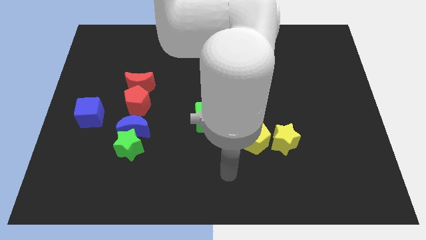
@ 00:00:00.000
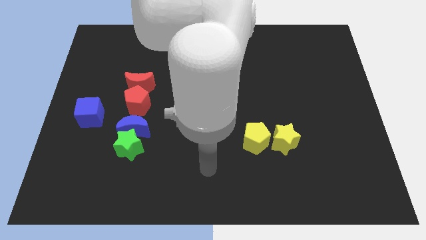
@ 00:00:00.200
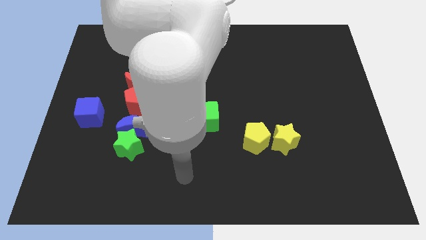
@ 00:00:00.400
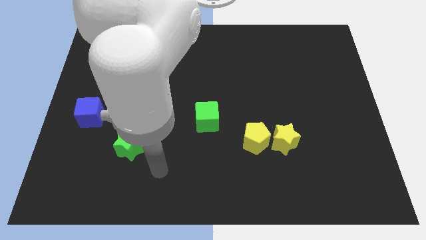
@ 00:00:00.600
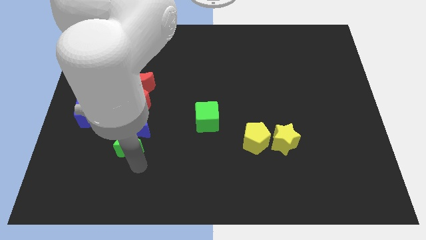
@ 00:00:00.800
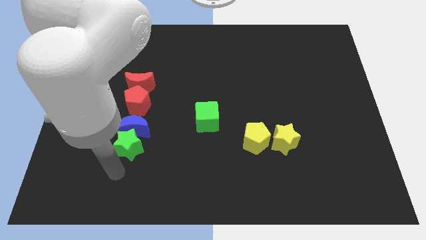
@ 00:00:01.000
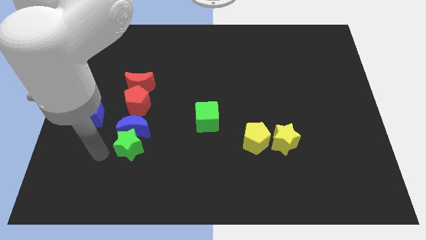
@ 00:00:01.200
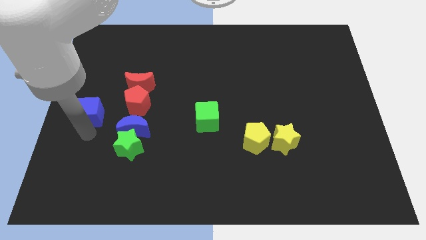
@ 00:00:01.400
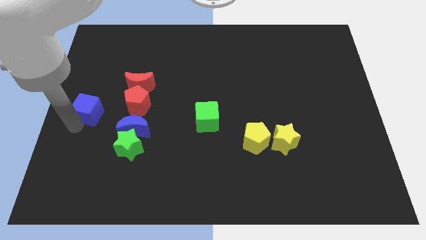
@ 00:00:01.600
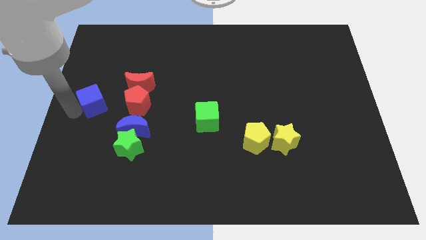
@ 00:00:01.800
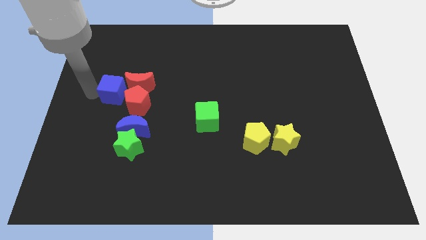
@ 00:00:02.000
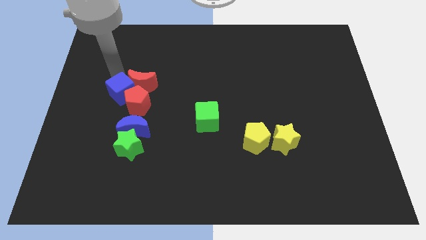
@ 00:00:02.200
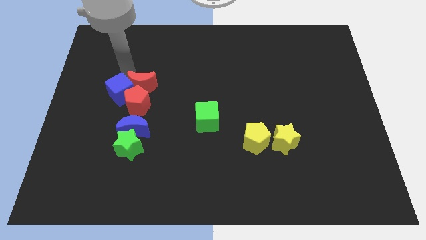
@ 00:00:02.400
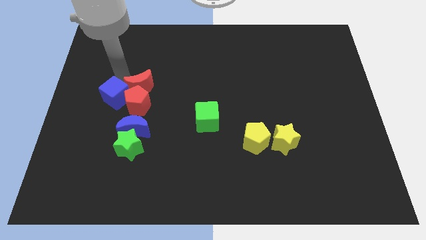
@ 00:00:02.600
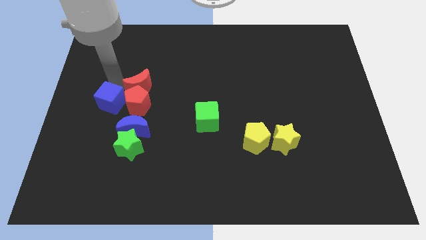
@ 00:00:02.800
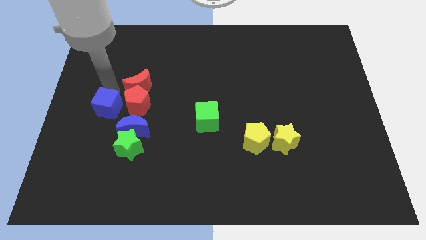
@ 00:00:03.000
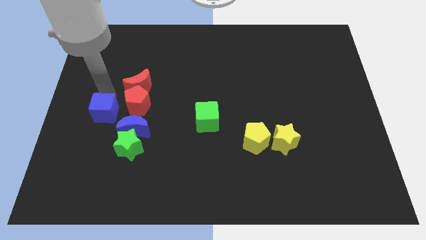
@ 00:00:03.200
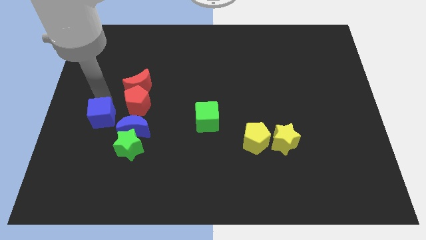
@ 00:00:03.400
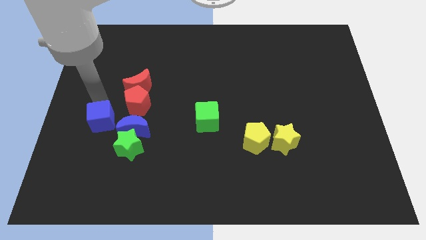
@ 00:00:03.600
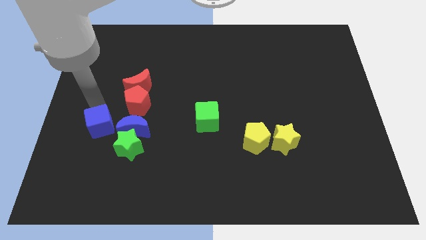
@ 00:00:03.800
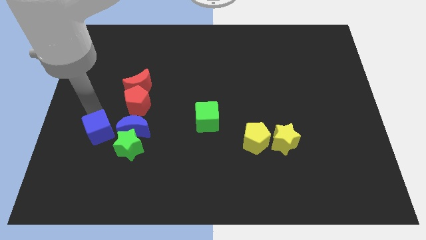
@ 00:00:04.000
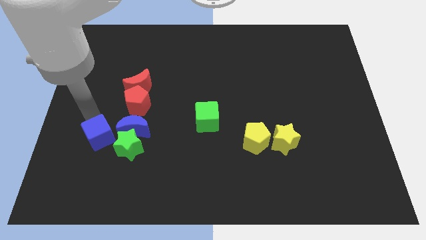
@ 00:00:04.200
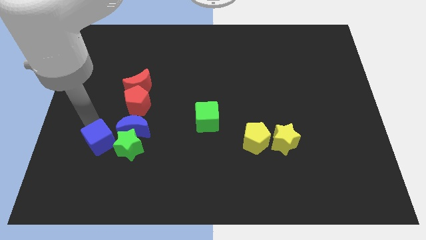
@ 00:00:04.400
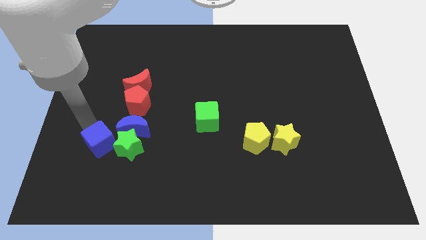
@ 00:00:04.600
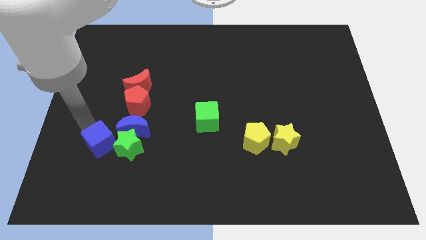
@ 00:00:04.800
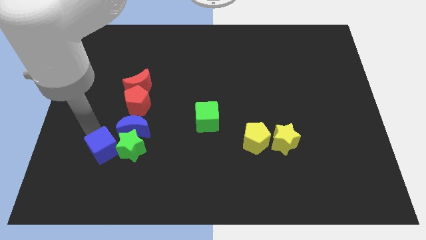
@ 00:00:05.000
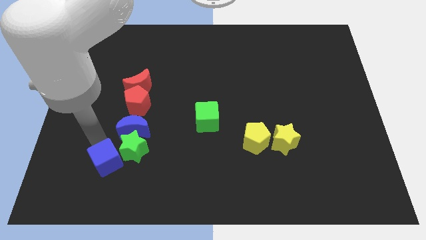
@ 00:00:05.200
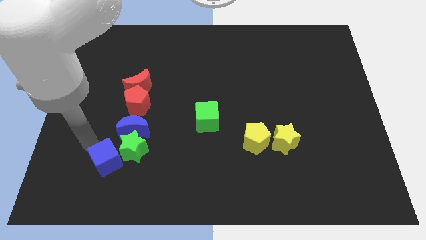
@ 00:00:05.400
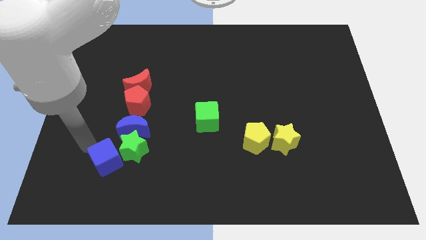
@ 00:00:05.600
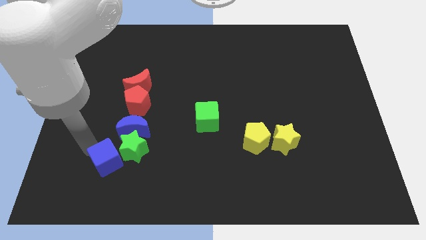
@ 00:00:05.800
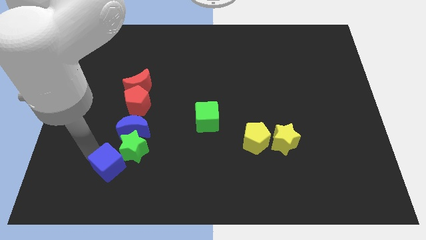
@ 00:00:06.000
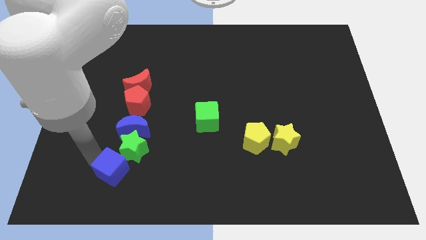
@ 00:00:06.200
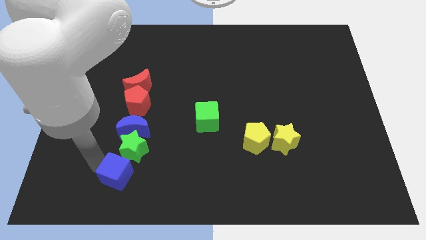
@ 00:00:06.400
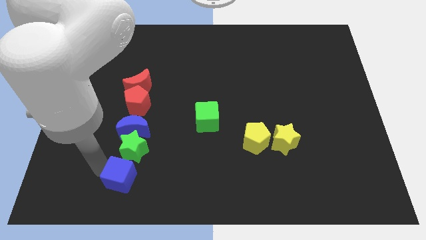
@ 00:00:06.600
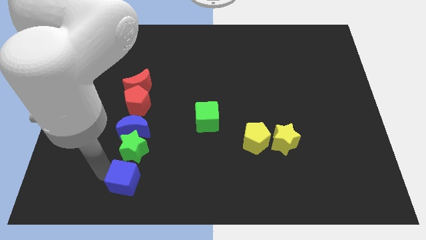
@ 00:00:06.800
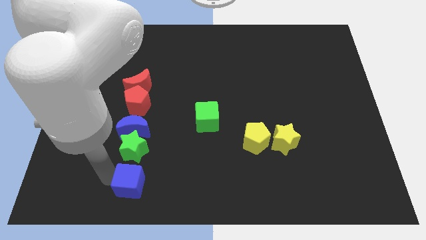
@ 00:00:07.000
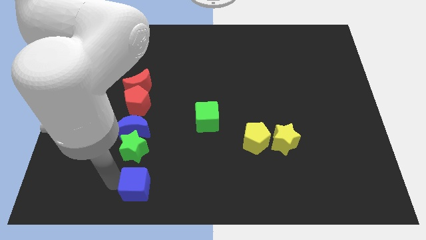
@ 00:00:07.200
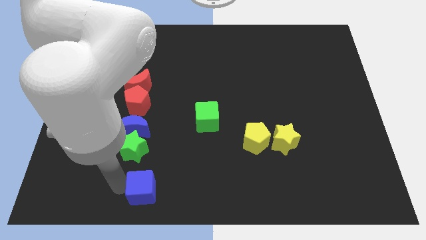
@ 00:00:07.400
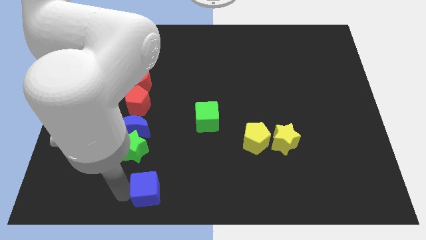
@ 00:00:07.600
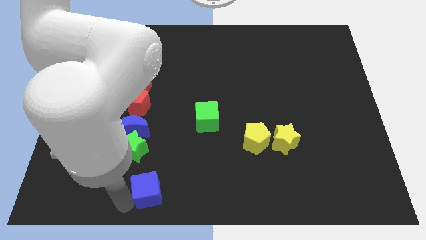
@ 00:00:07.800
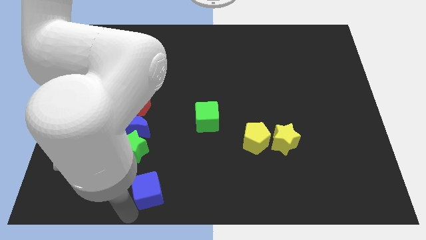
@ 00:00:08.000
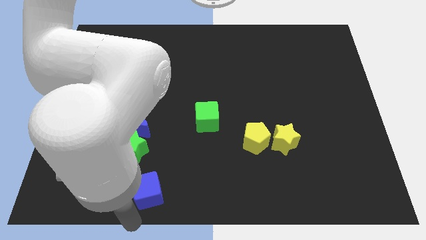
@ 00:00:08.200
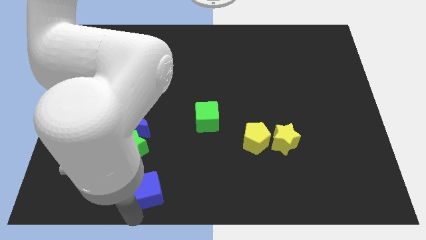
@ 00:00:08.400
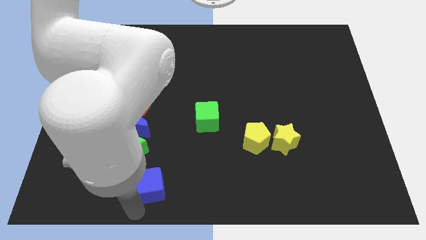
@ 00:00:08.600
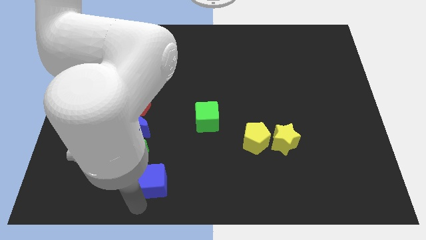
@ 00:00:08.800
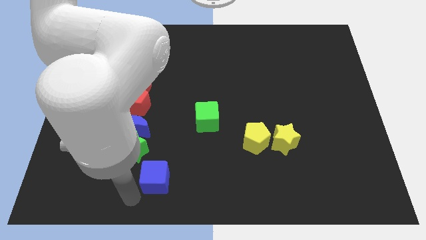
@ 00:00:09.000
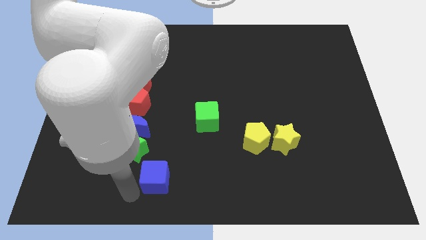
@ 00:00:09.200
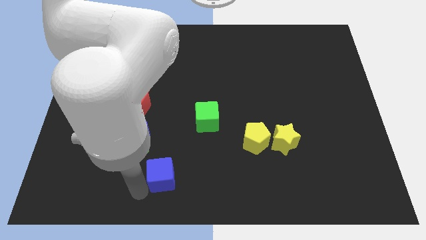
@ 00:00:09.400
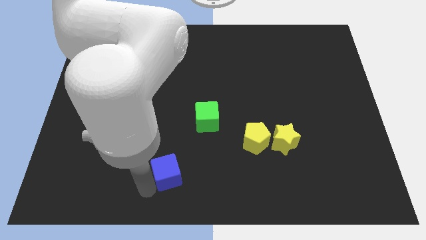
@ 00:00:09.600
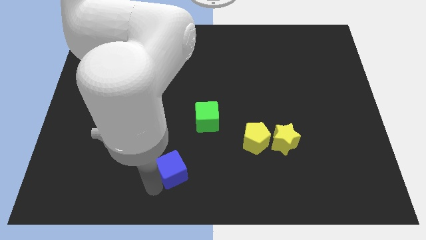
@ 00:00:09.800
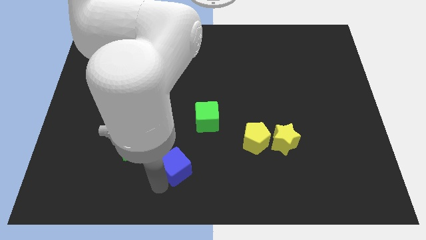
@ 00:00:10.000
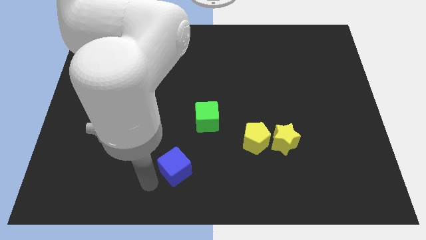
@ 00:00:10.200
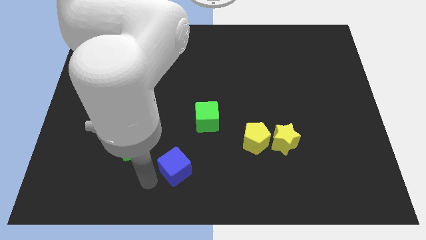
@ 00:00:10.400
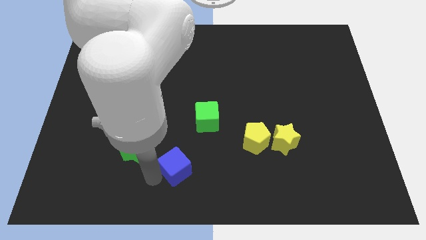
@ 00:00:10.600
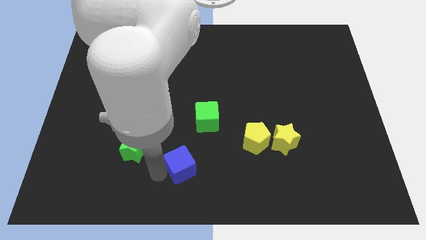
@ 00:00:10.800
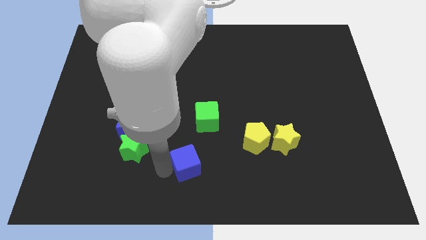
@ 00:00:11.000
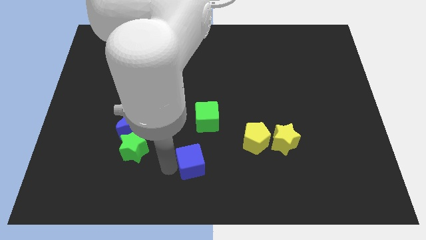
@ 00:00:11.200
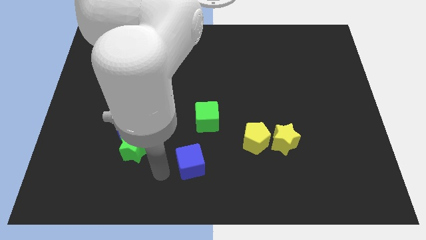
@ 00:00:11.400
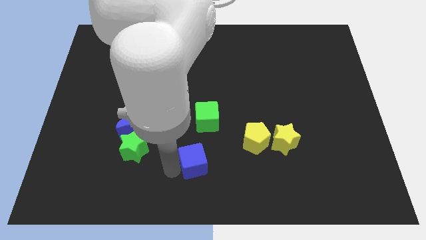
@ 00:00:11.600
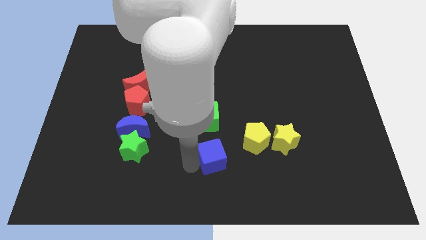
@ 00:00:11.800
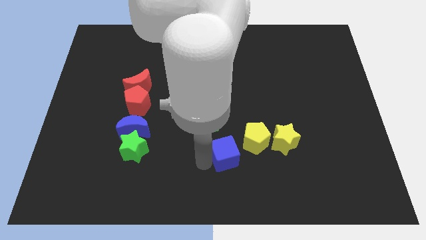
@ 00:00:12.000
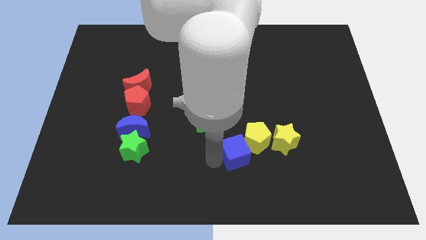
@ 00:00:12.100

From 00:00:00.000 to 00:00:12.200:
move the blue cube next to the yellow pentagon

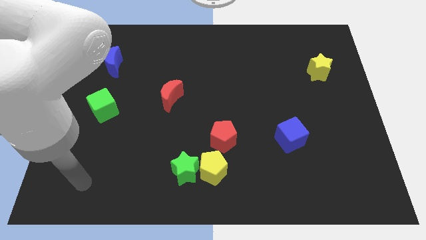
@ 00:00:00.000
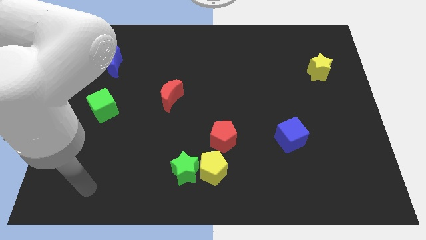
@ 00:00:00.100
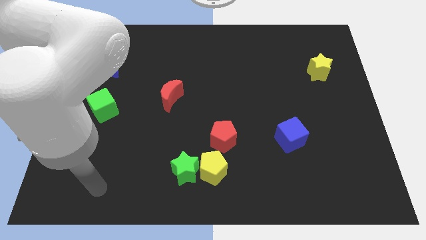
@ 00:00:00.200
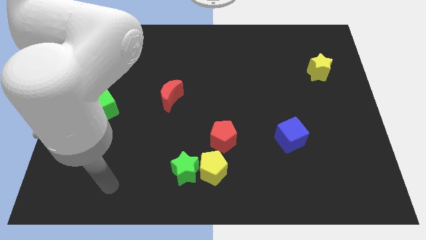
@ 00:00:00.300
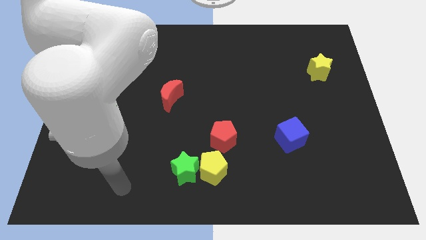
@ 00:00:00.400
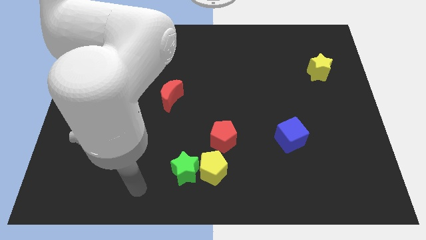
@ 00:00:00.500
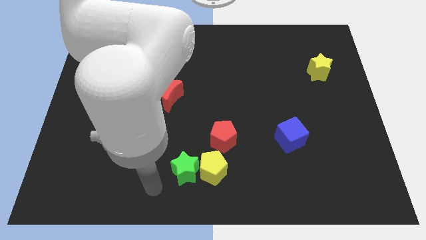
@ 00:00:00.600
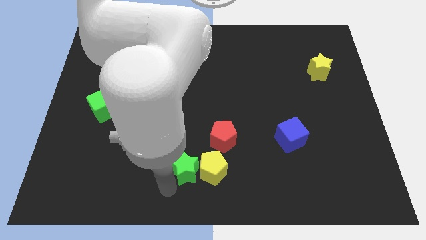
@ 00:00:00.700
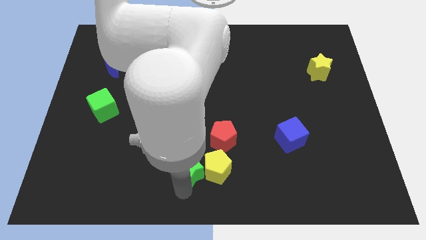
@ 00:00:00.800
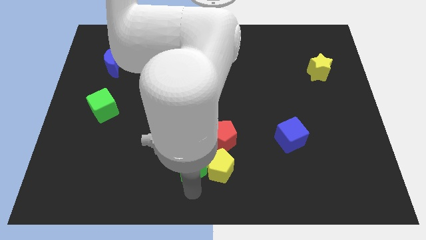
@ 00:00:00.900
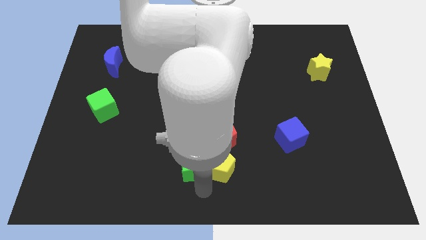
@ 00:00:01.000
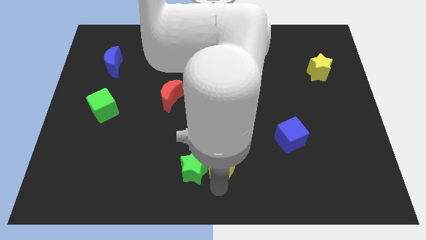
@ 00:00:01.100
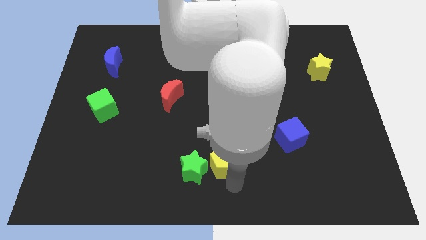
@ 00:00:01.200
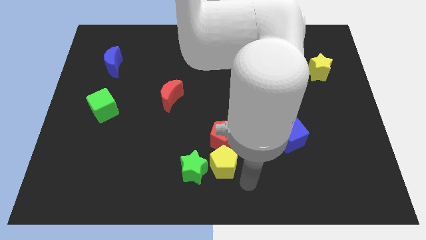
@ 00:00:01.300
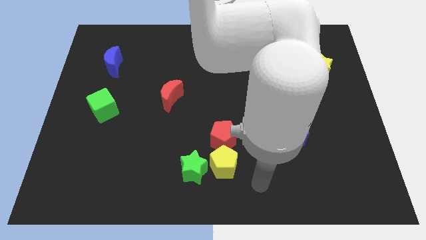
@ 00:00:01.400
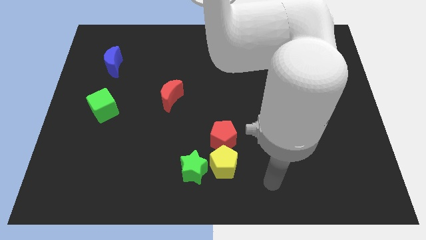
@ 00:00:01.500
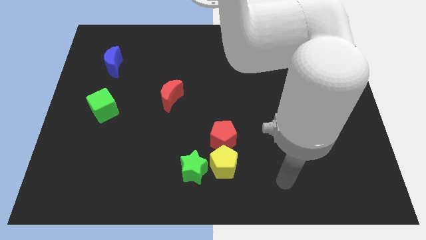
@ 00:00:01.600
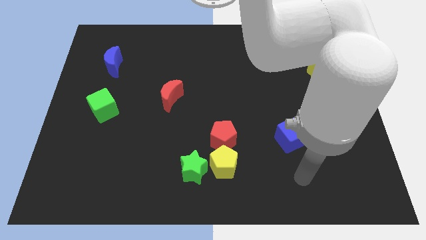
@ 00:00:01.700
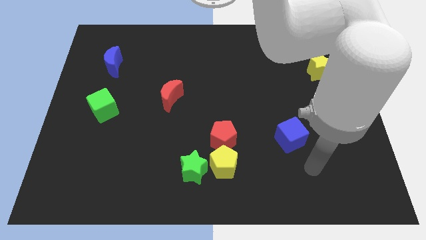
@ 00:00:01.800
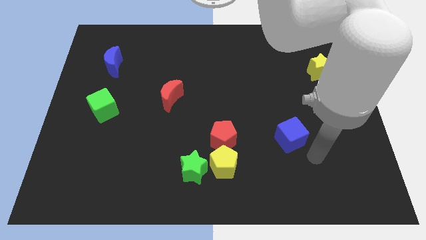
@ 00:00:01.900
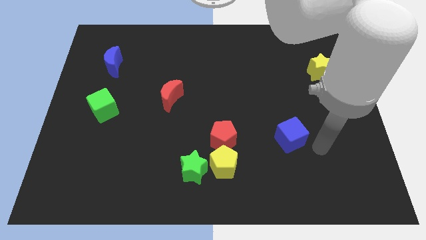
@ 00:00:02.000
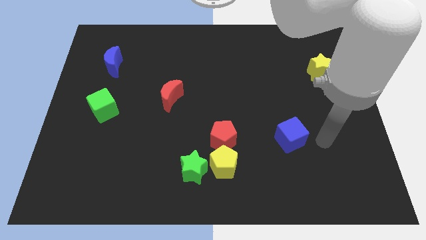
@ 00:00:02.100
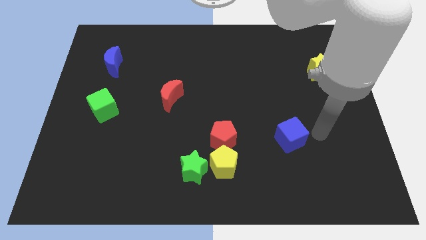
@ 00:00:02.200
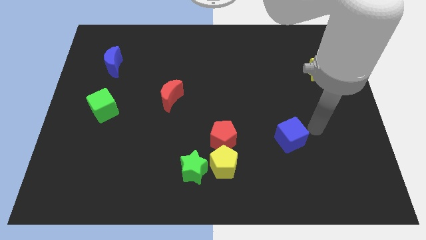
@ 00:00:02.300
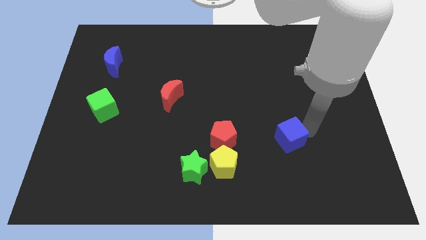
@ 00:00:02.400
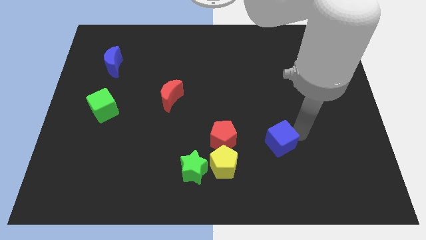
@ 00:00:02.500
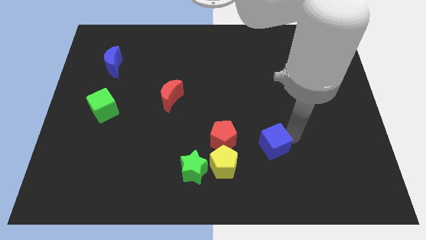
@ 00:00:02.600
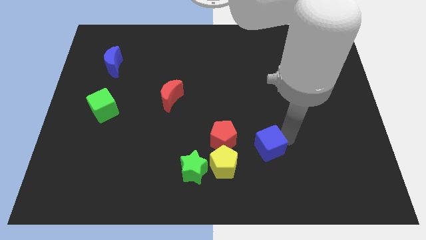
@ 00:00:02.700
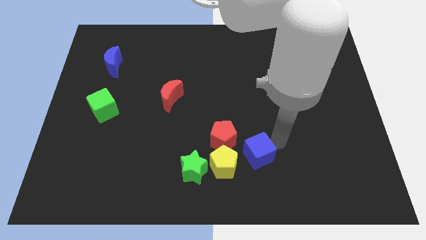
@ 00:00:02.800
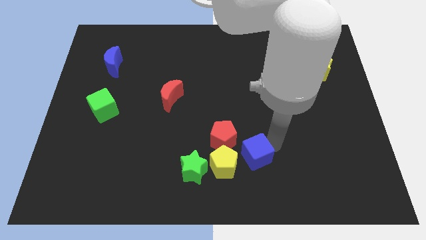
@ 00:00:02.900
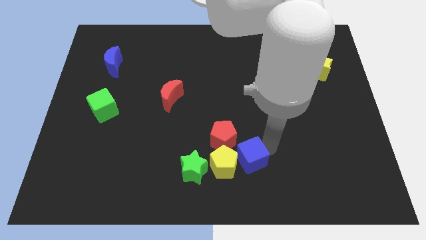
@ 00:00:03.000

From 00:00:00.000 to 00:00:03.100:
put the blue cube towards the yellow pentagon
